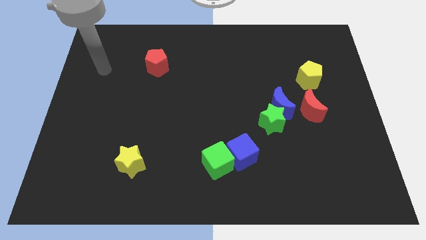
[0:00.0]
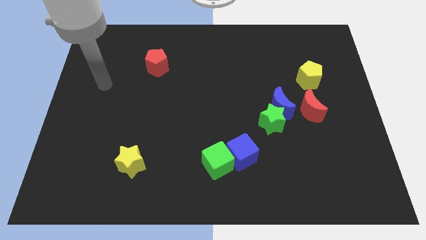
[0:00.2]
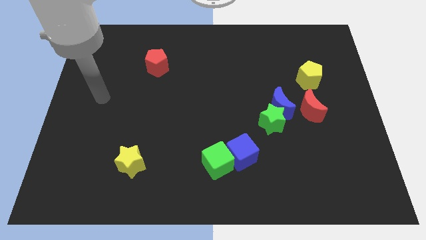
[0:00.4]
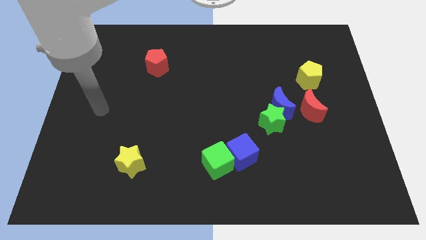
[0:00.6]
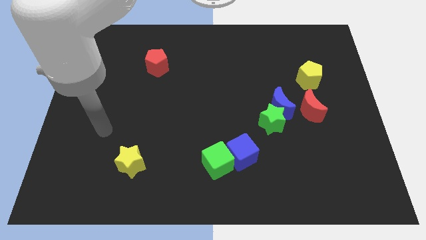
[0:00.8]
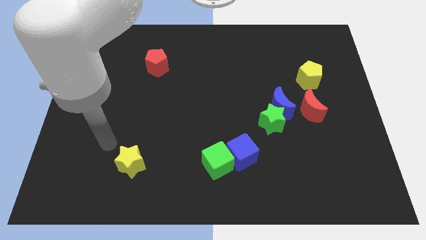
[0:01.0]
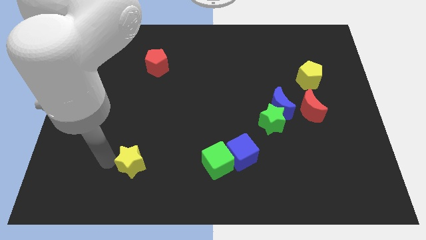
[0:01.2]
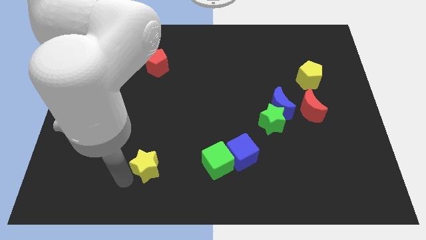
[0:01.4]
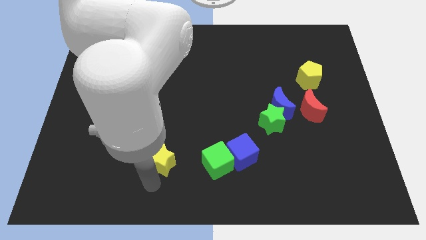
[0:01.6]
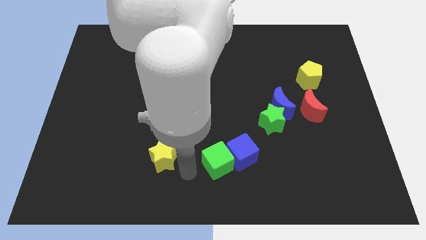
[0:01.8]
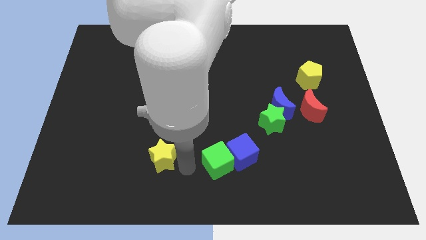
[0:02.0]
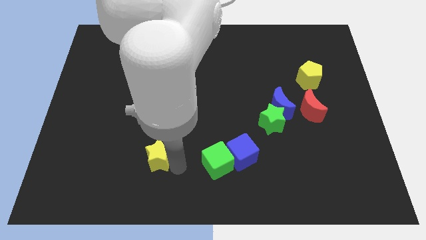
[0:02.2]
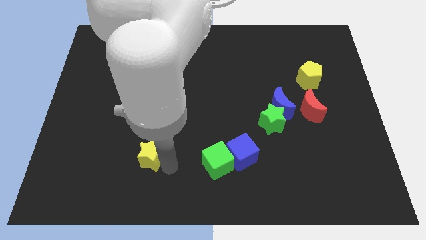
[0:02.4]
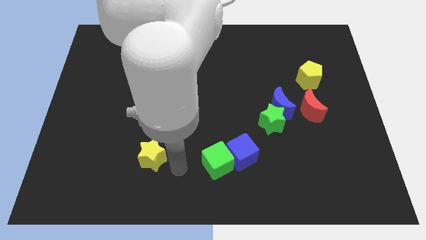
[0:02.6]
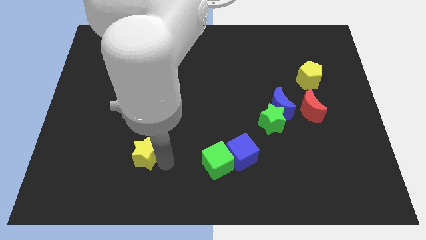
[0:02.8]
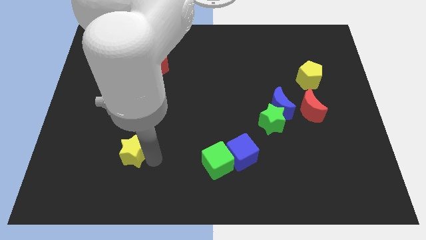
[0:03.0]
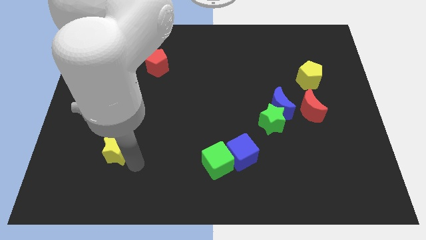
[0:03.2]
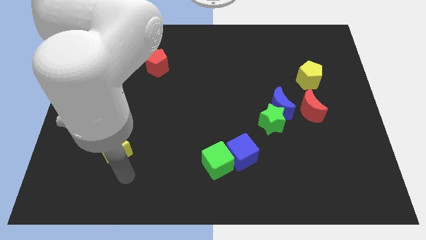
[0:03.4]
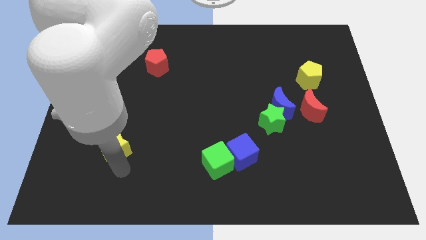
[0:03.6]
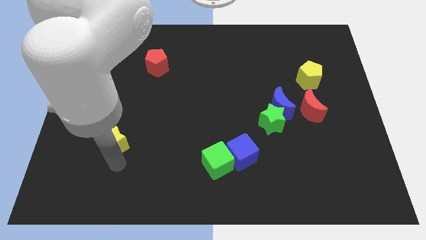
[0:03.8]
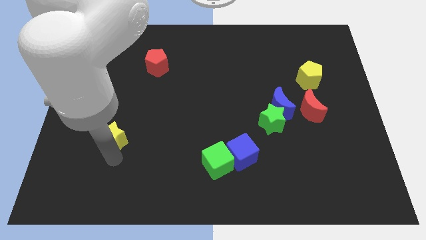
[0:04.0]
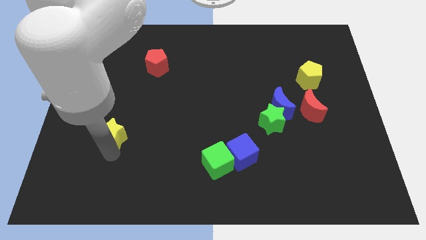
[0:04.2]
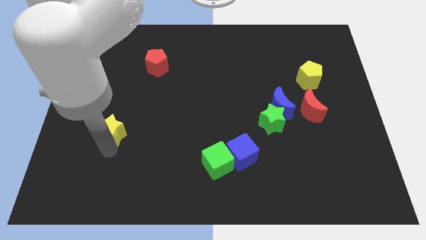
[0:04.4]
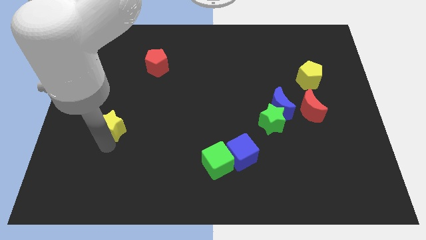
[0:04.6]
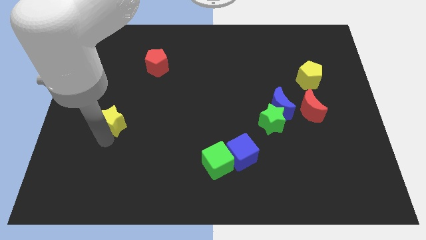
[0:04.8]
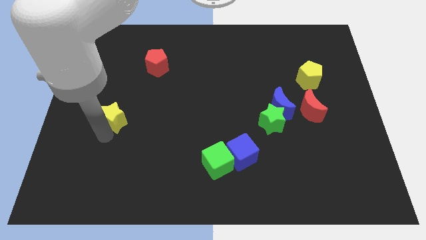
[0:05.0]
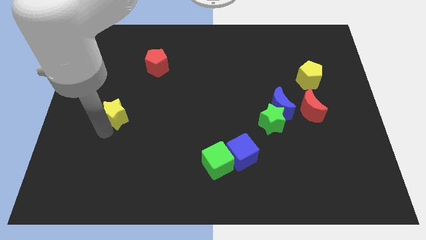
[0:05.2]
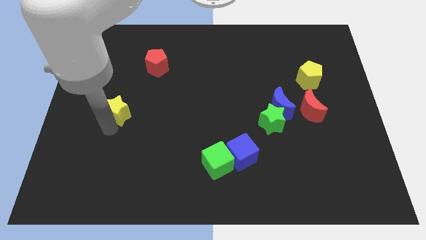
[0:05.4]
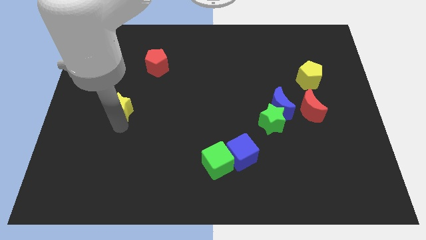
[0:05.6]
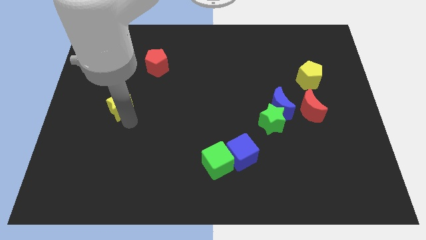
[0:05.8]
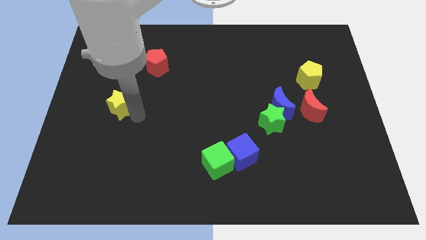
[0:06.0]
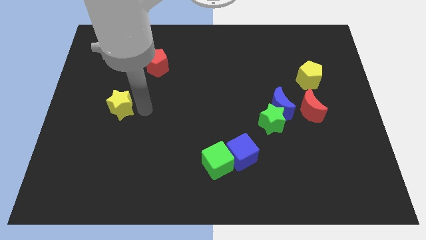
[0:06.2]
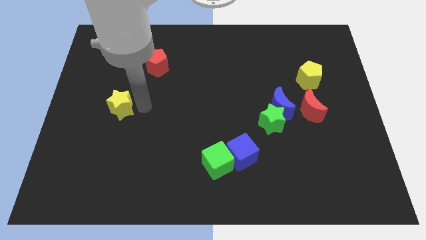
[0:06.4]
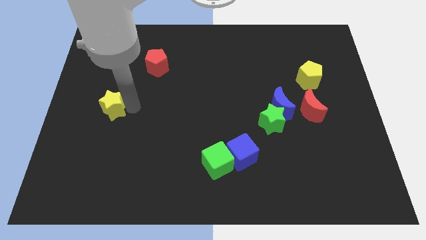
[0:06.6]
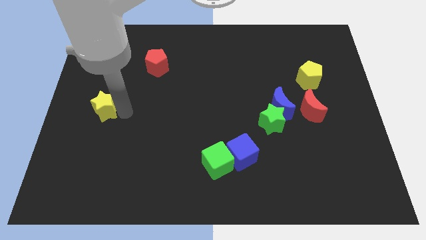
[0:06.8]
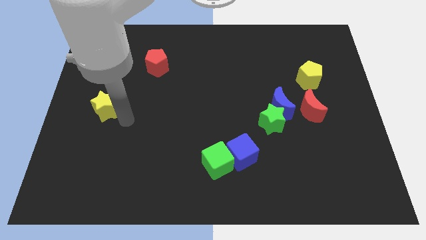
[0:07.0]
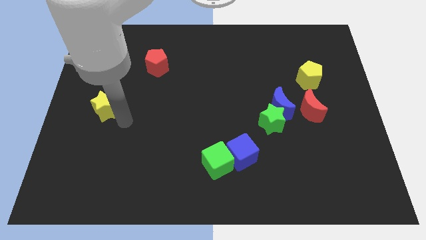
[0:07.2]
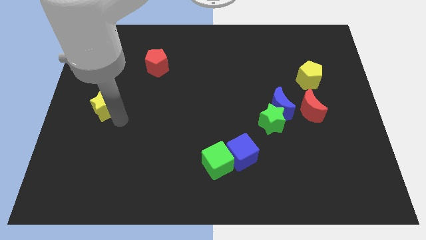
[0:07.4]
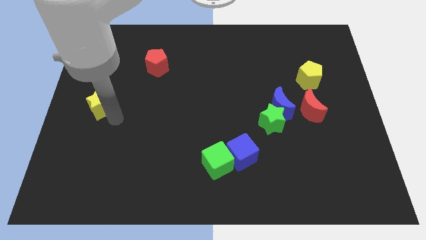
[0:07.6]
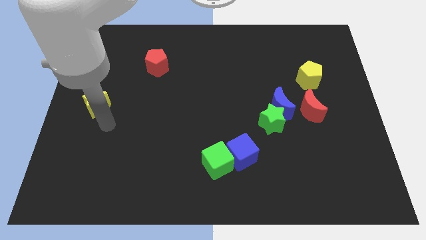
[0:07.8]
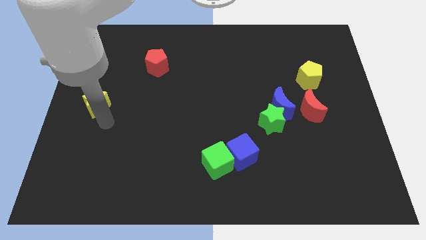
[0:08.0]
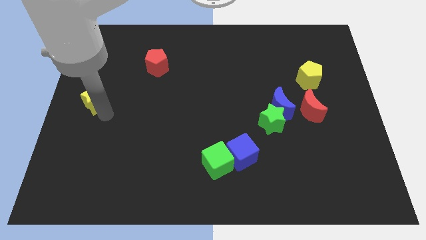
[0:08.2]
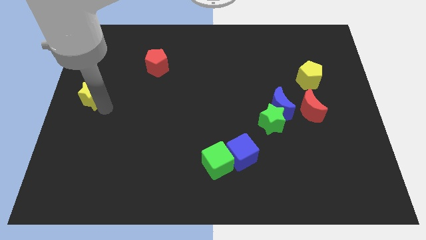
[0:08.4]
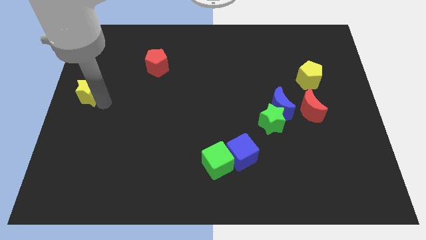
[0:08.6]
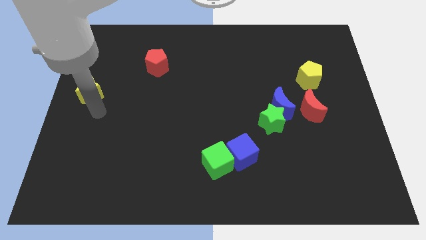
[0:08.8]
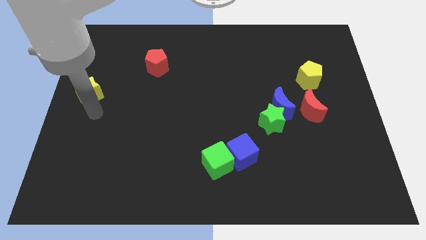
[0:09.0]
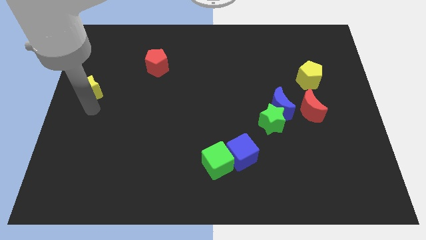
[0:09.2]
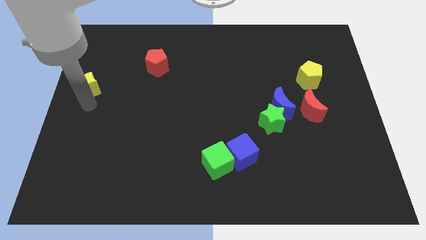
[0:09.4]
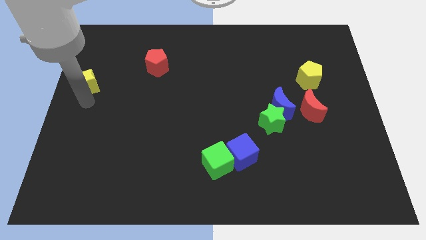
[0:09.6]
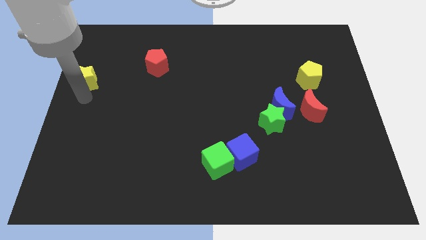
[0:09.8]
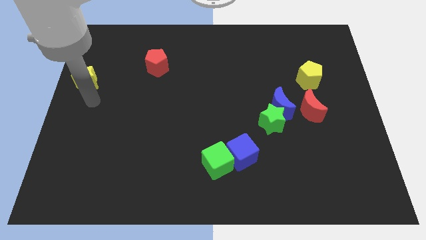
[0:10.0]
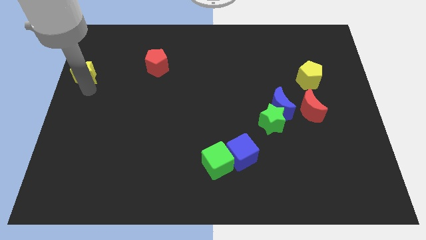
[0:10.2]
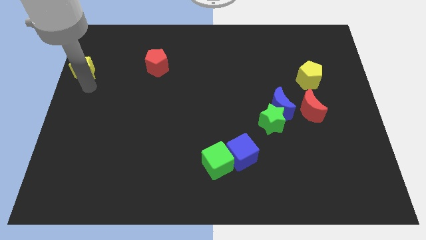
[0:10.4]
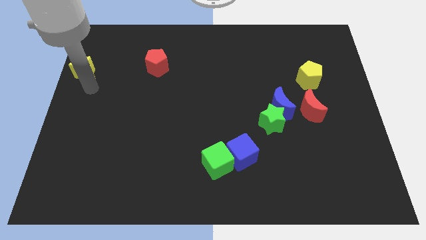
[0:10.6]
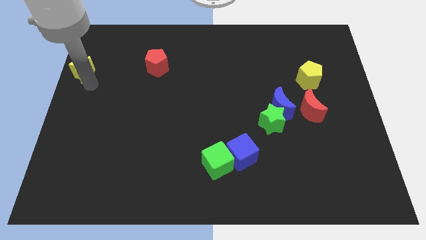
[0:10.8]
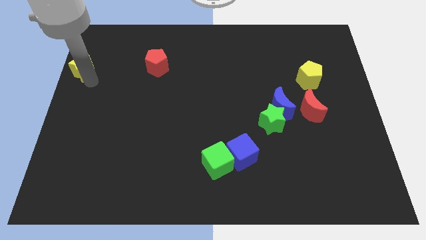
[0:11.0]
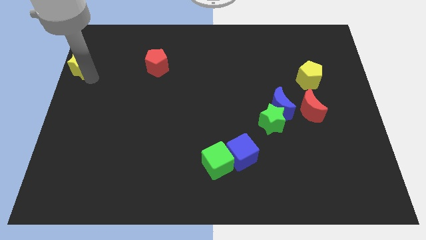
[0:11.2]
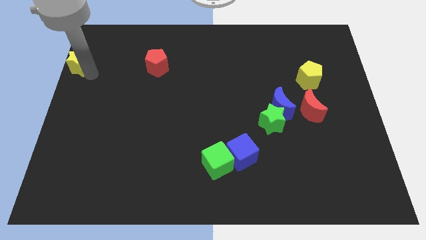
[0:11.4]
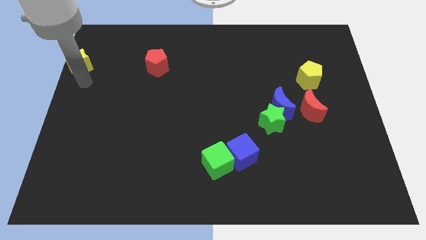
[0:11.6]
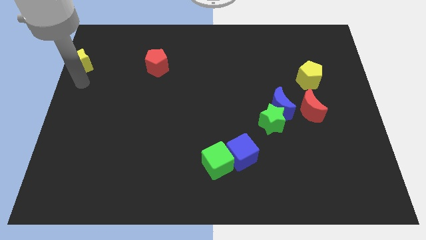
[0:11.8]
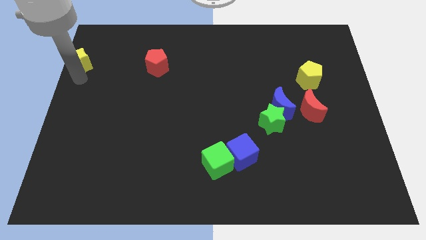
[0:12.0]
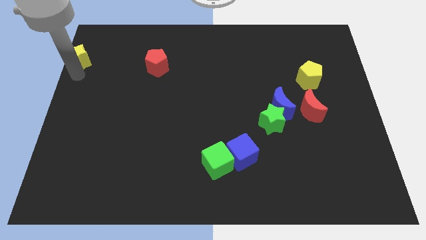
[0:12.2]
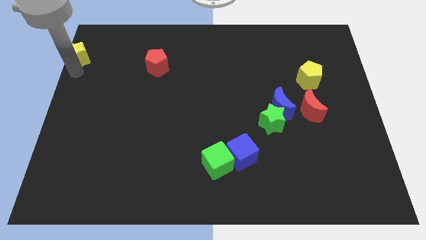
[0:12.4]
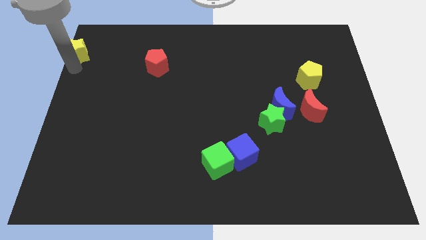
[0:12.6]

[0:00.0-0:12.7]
push the yellow star to the upper left corner

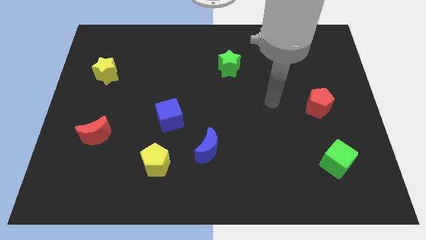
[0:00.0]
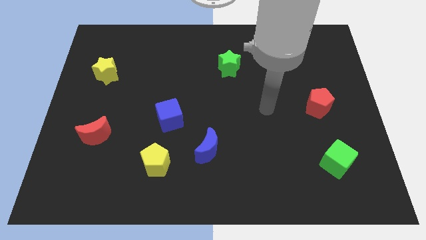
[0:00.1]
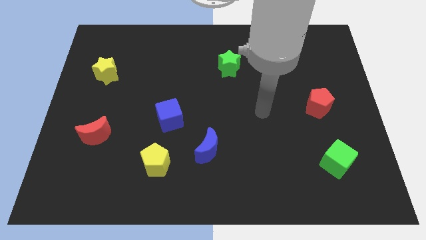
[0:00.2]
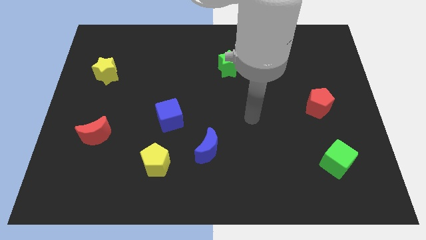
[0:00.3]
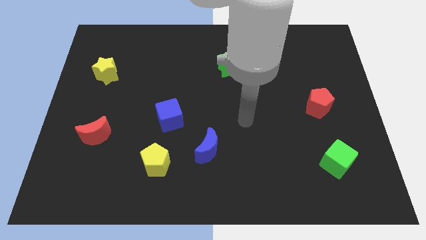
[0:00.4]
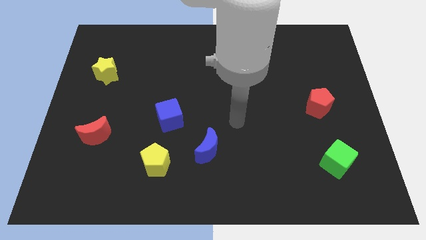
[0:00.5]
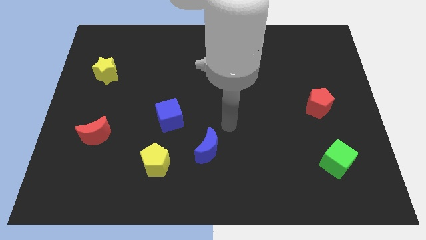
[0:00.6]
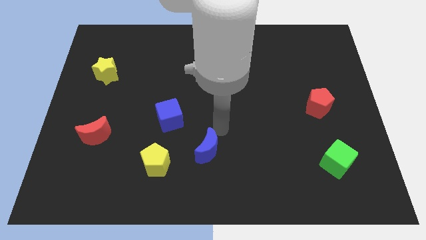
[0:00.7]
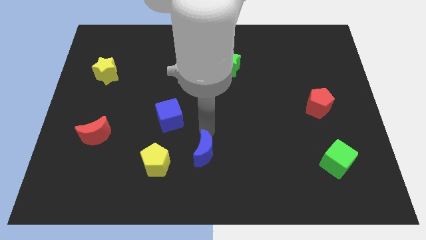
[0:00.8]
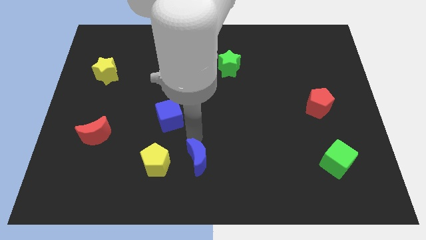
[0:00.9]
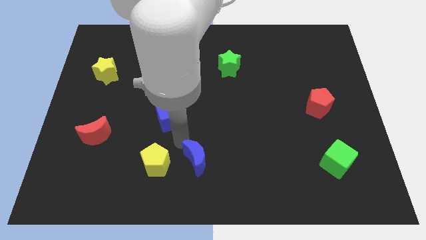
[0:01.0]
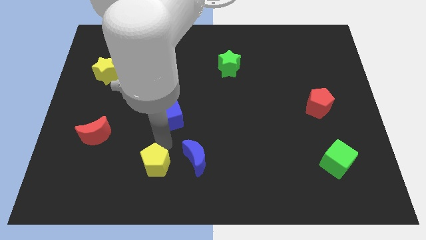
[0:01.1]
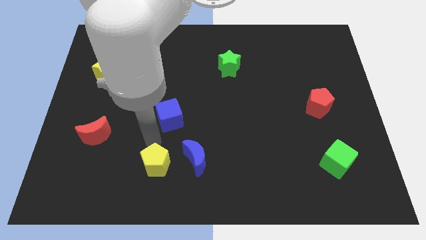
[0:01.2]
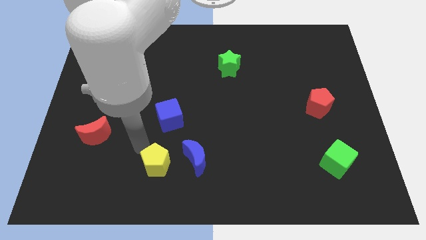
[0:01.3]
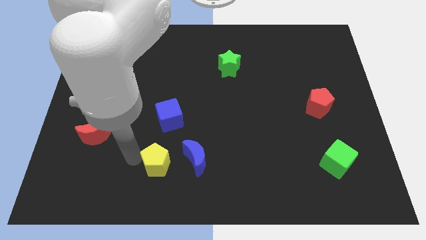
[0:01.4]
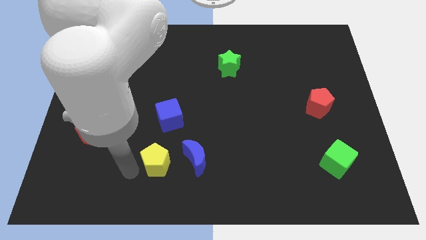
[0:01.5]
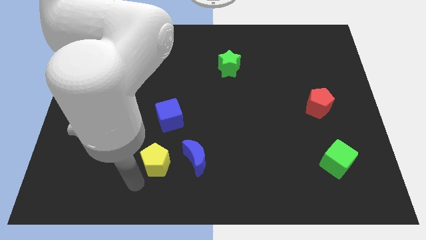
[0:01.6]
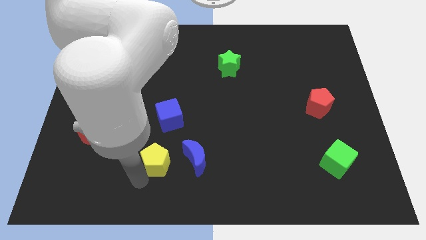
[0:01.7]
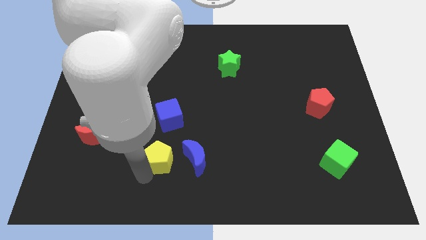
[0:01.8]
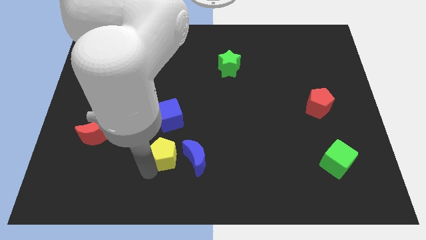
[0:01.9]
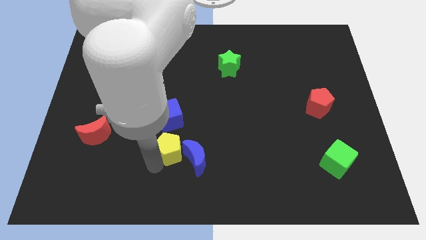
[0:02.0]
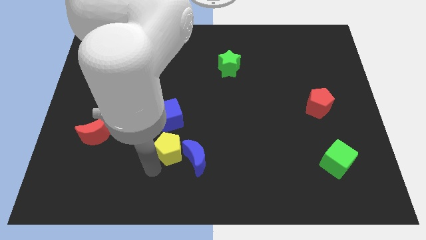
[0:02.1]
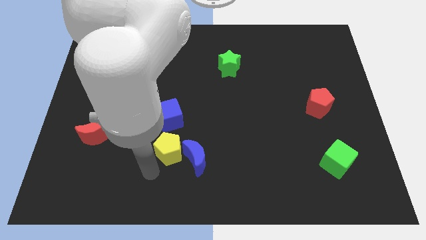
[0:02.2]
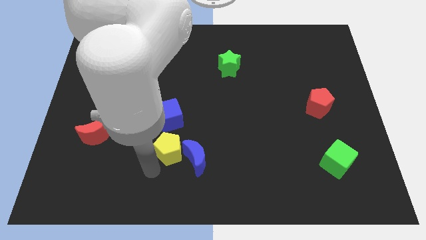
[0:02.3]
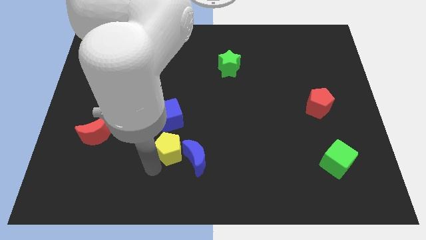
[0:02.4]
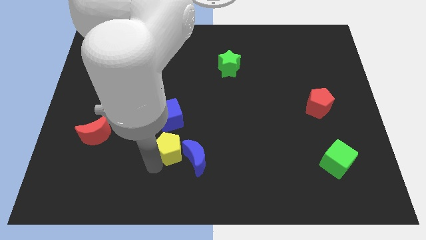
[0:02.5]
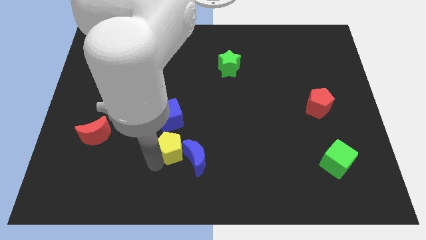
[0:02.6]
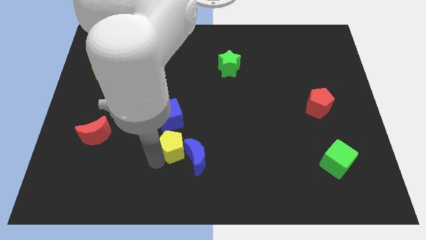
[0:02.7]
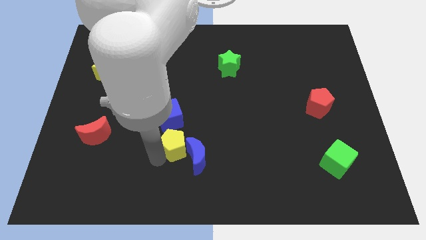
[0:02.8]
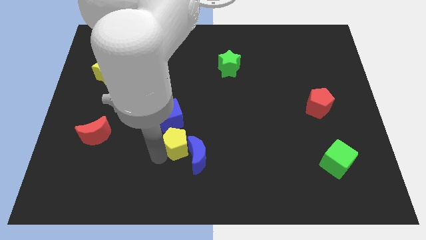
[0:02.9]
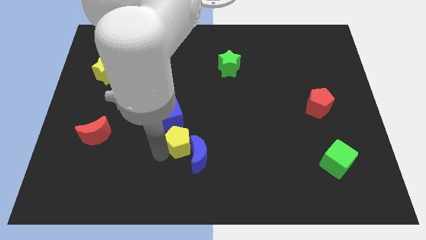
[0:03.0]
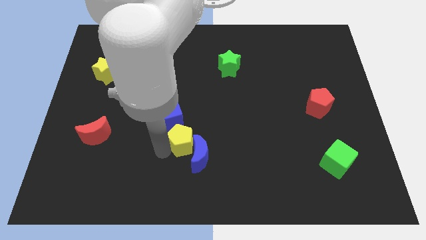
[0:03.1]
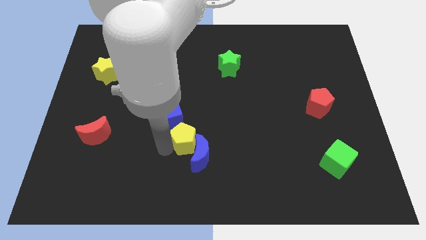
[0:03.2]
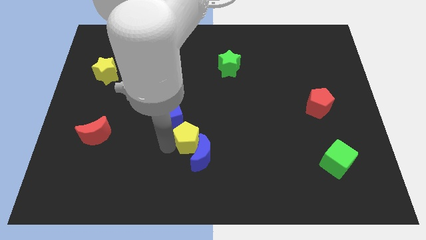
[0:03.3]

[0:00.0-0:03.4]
push the yellow pentagon to the center
